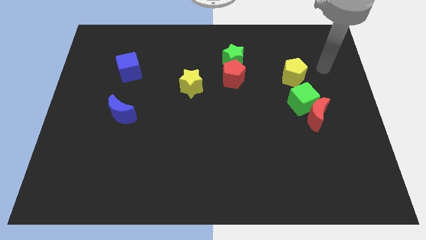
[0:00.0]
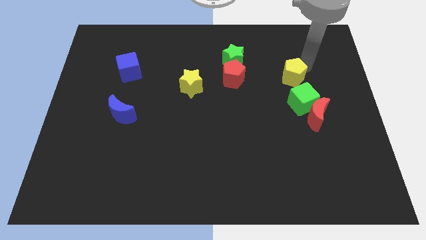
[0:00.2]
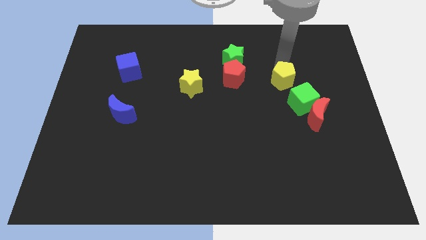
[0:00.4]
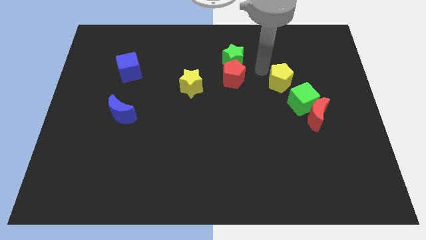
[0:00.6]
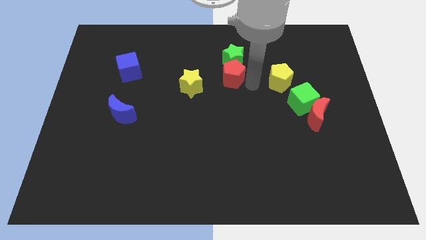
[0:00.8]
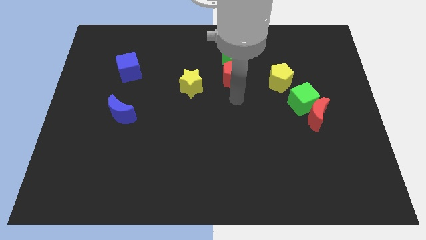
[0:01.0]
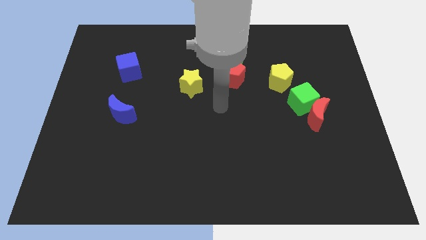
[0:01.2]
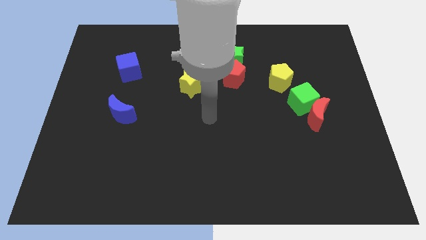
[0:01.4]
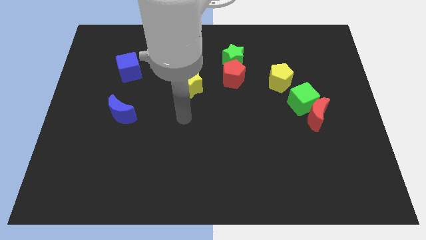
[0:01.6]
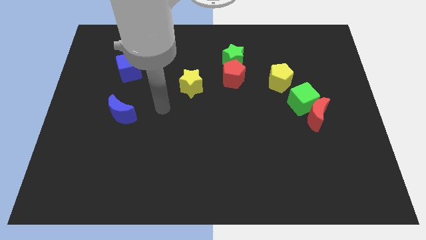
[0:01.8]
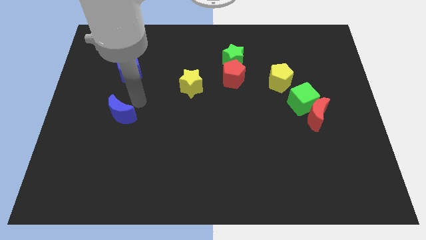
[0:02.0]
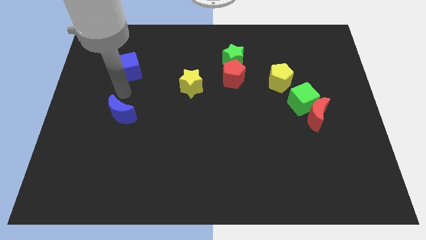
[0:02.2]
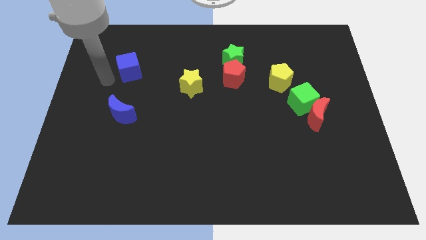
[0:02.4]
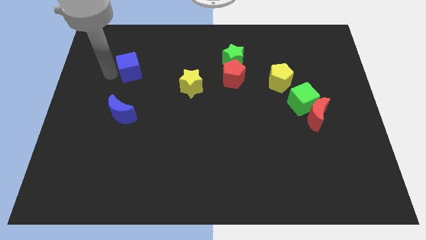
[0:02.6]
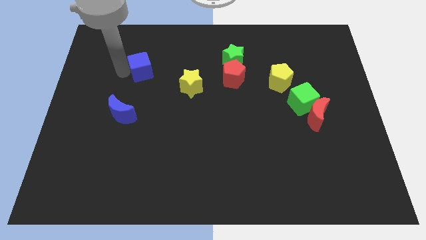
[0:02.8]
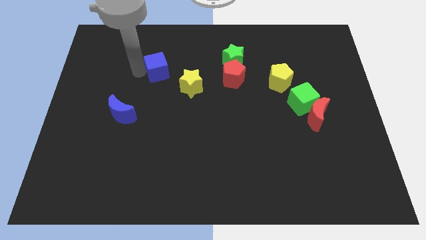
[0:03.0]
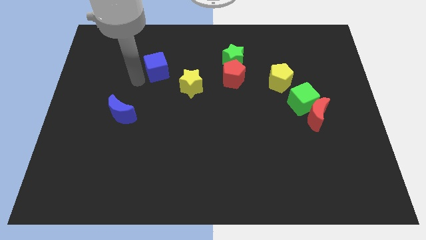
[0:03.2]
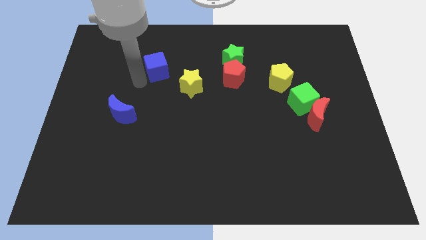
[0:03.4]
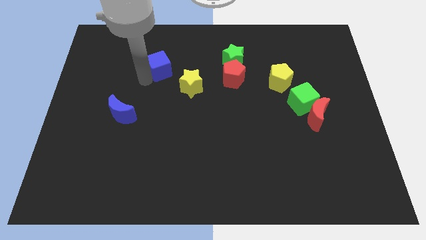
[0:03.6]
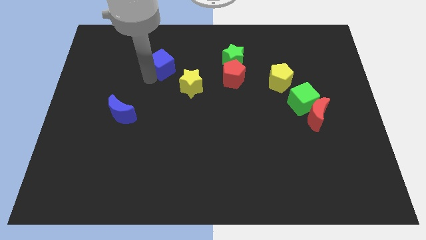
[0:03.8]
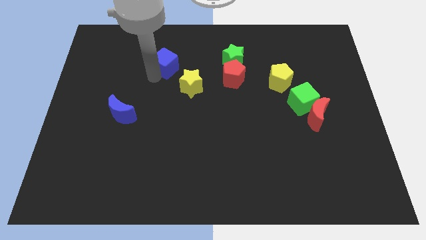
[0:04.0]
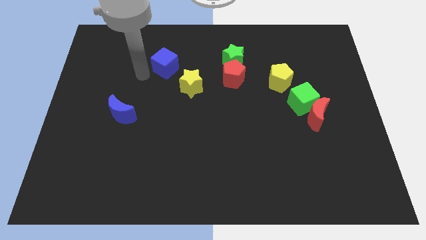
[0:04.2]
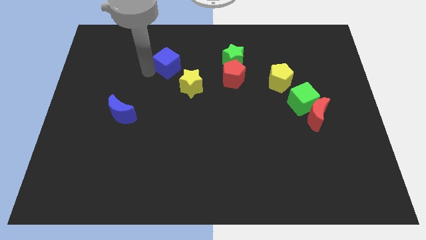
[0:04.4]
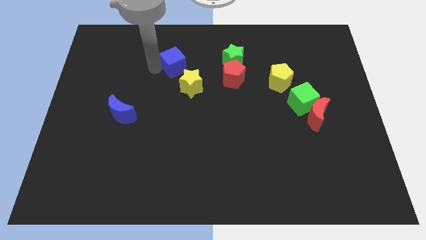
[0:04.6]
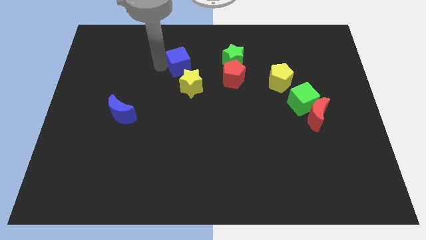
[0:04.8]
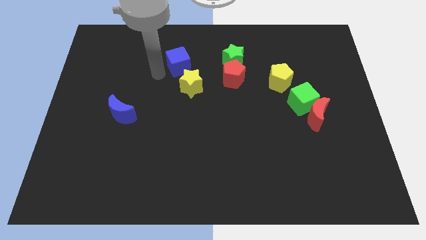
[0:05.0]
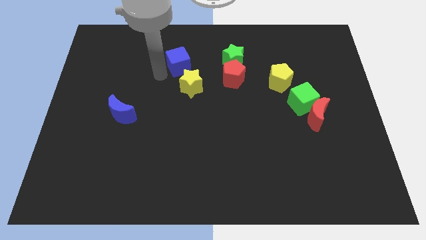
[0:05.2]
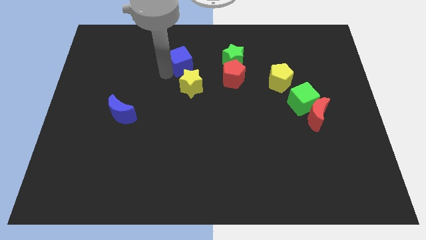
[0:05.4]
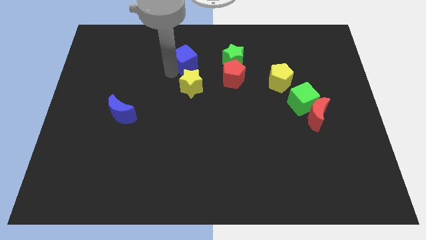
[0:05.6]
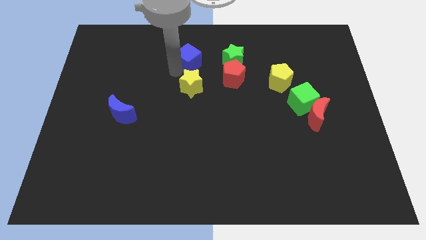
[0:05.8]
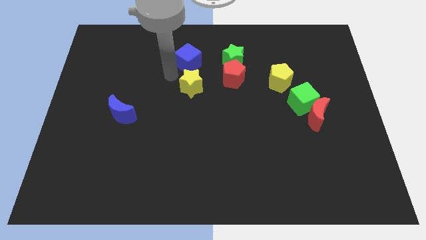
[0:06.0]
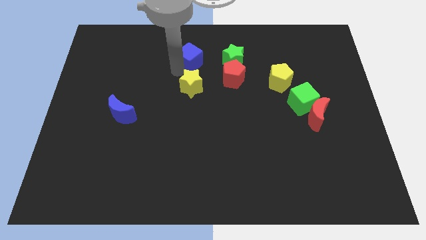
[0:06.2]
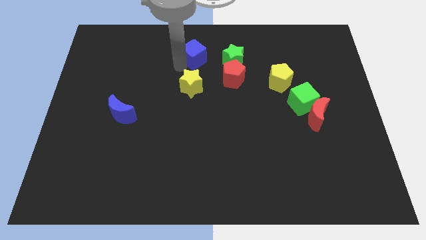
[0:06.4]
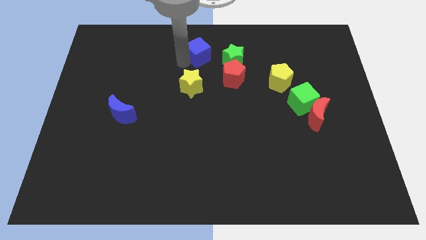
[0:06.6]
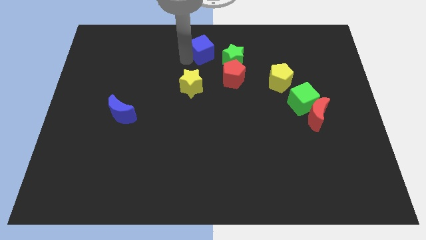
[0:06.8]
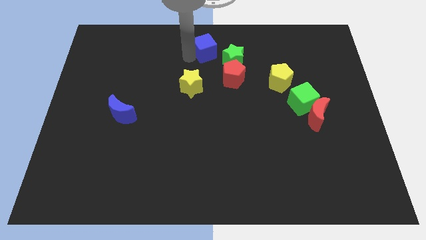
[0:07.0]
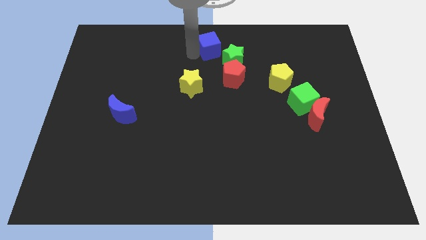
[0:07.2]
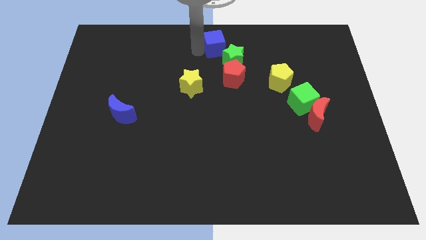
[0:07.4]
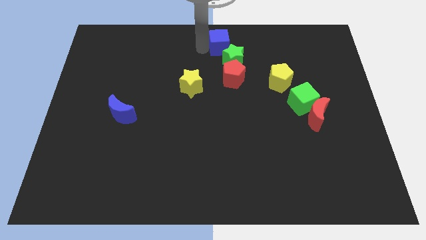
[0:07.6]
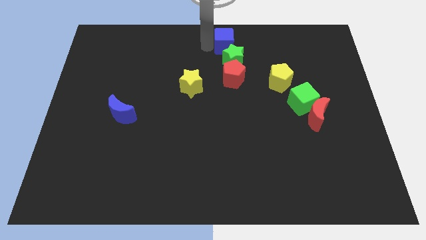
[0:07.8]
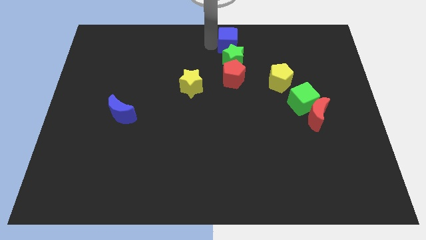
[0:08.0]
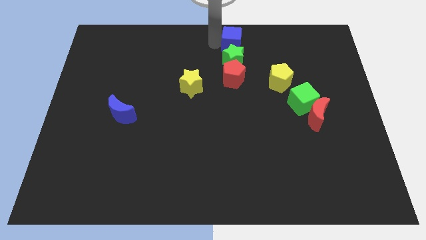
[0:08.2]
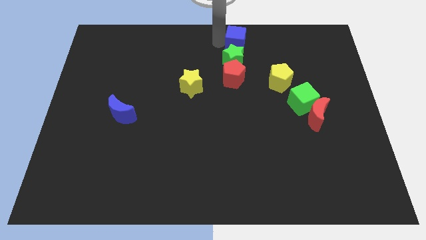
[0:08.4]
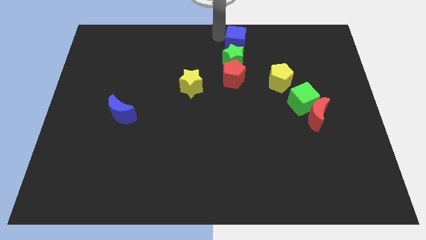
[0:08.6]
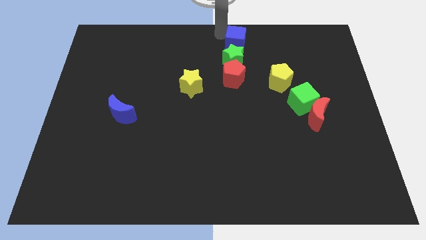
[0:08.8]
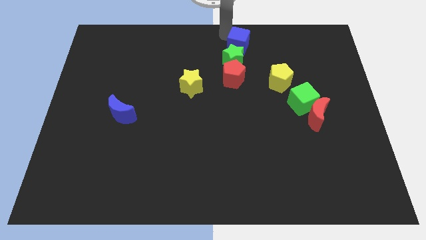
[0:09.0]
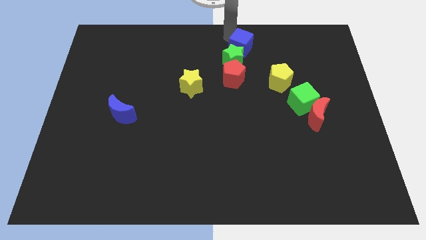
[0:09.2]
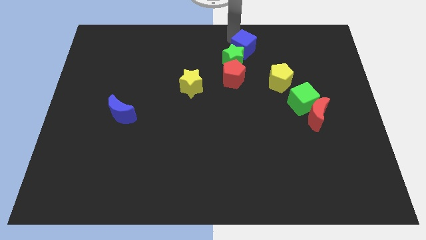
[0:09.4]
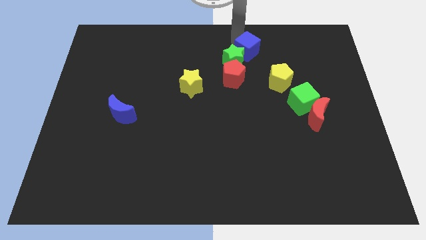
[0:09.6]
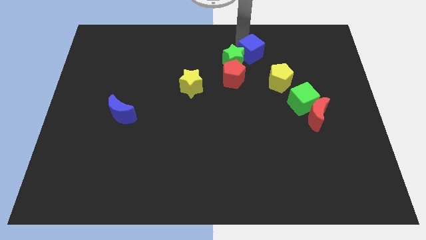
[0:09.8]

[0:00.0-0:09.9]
push the blue cube to the top left side of the yellow pentagon

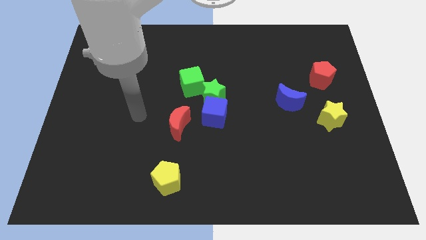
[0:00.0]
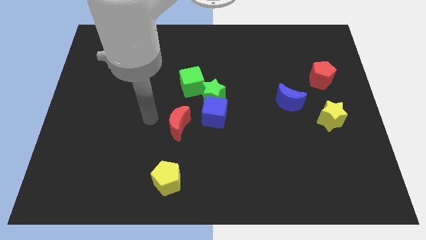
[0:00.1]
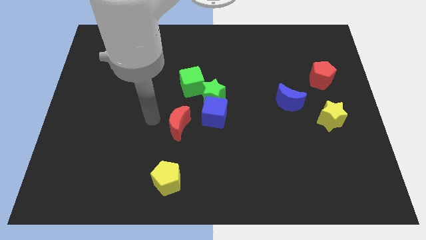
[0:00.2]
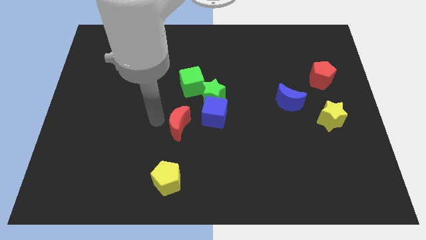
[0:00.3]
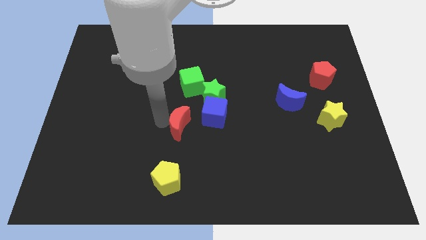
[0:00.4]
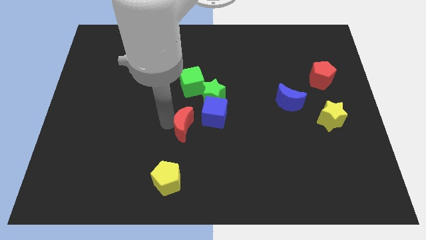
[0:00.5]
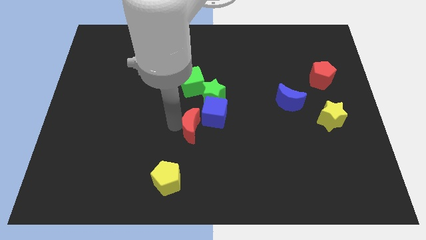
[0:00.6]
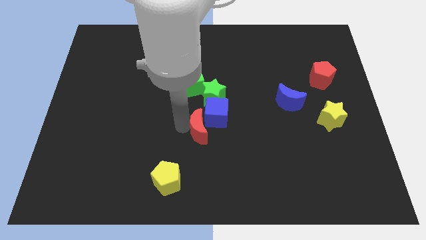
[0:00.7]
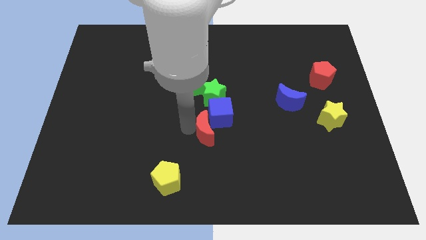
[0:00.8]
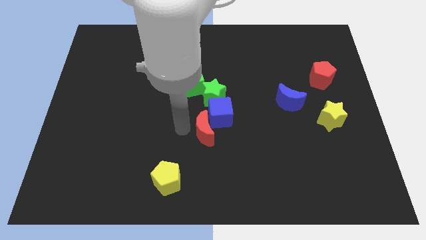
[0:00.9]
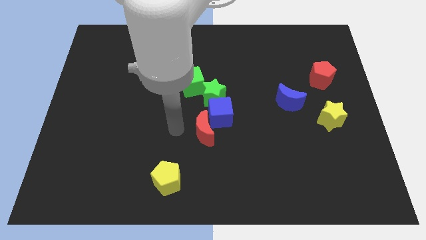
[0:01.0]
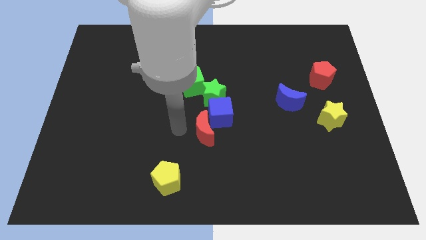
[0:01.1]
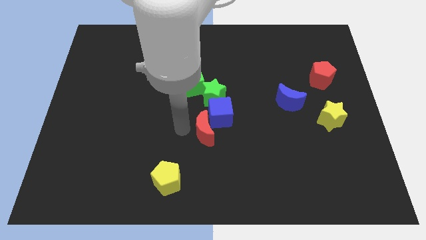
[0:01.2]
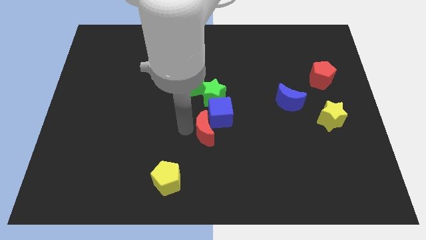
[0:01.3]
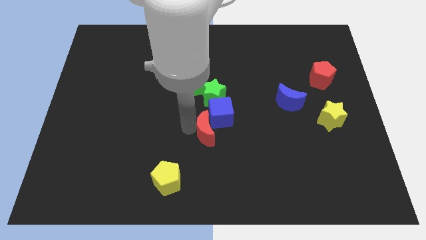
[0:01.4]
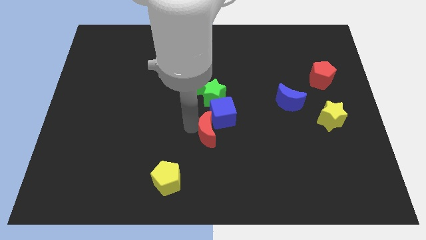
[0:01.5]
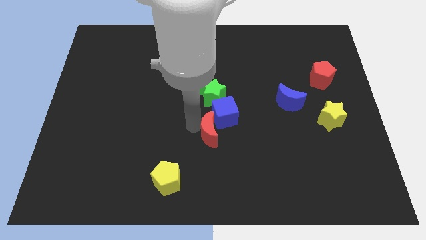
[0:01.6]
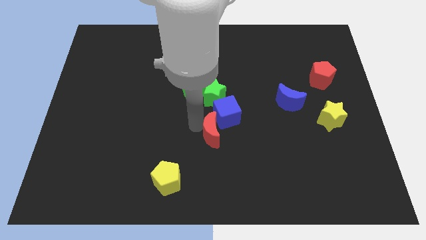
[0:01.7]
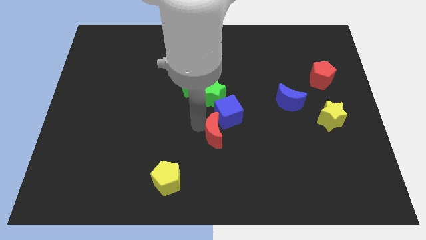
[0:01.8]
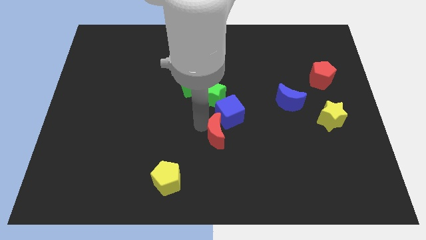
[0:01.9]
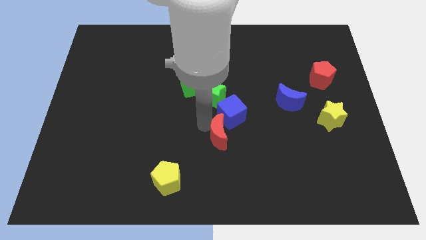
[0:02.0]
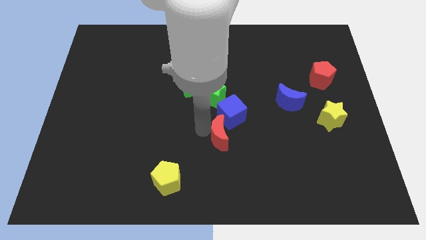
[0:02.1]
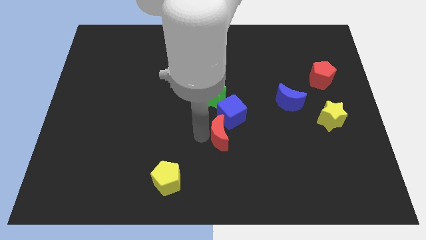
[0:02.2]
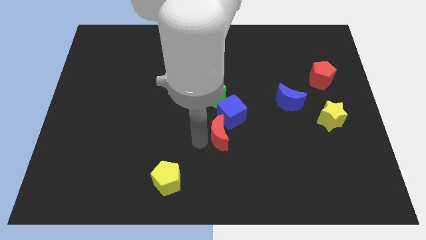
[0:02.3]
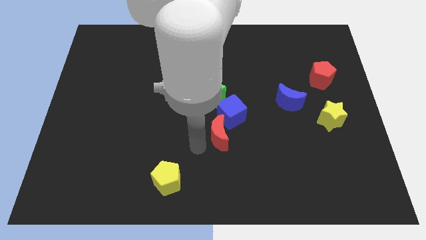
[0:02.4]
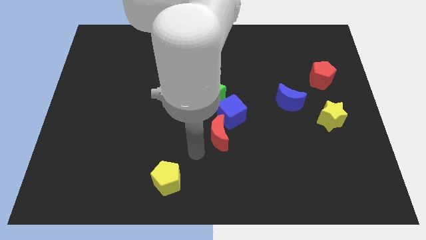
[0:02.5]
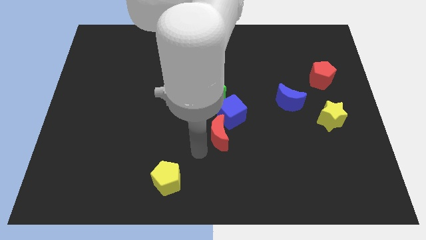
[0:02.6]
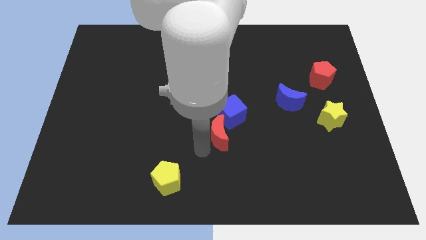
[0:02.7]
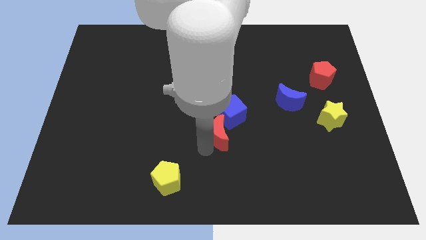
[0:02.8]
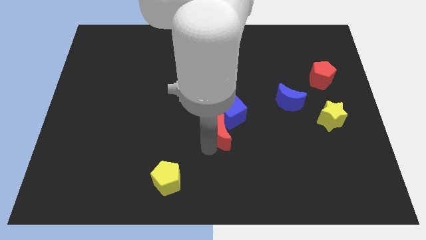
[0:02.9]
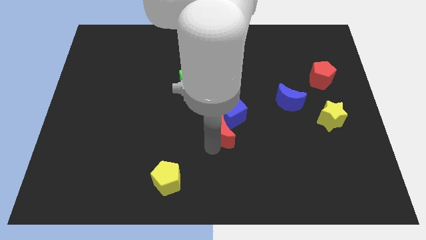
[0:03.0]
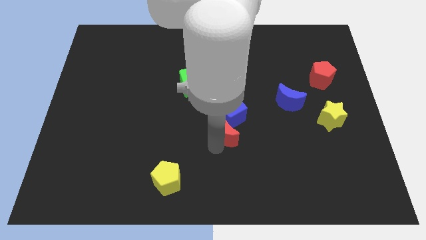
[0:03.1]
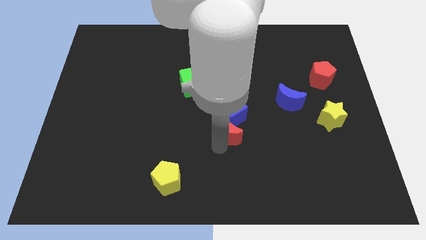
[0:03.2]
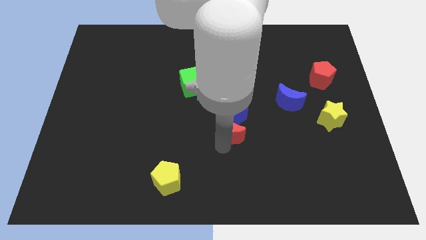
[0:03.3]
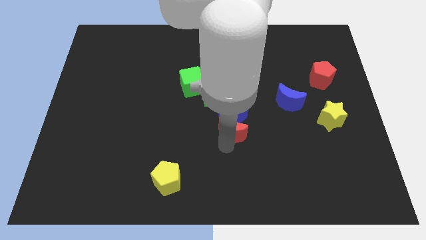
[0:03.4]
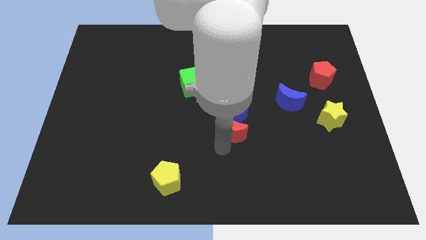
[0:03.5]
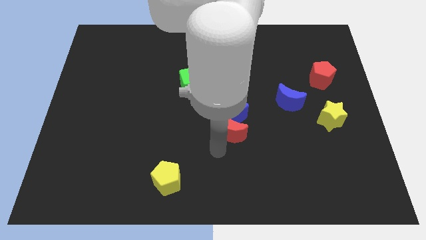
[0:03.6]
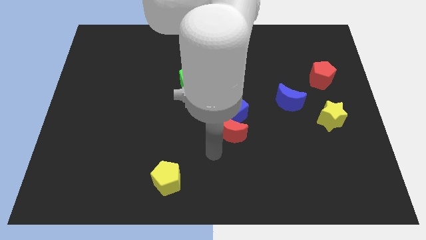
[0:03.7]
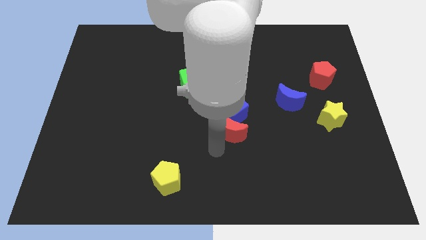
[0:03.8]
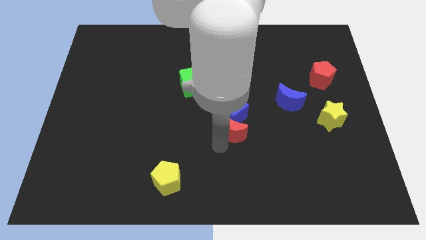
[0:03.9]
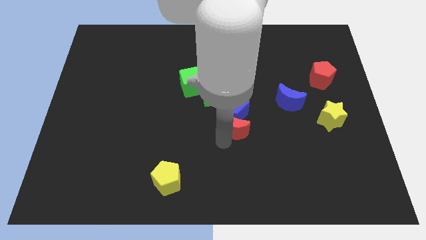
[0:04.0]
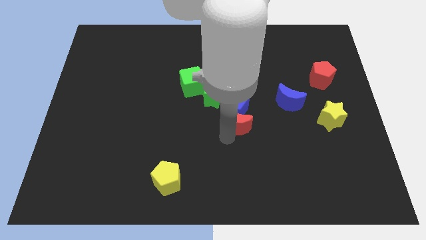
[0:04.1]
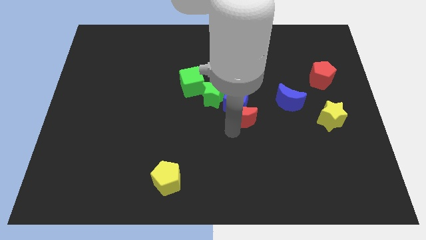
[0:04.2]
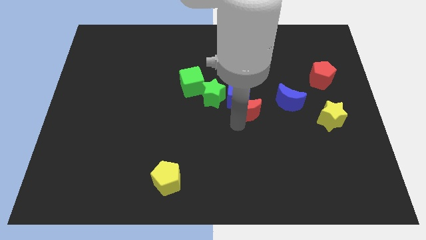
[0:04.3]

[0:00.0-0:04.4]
slide the red moon to the right of the green star
